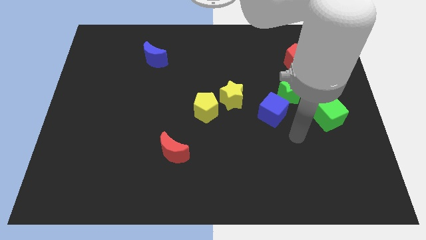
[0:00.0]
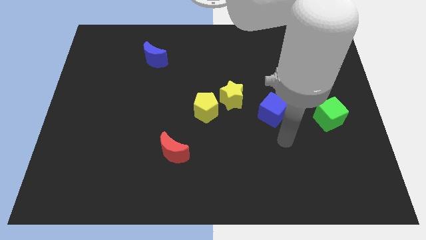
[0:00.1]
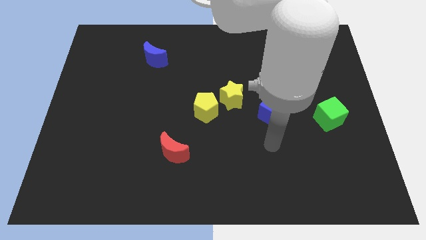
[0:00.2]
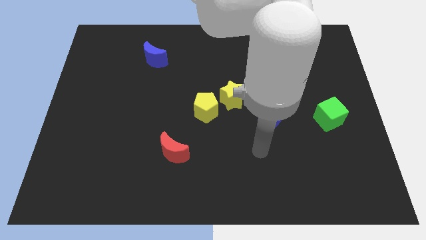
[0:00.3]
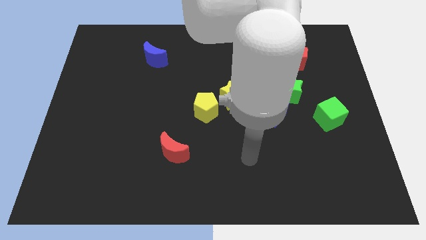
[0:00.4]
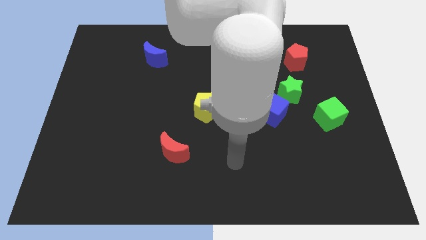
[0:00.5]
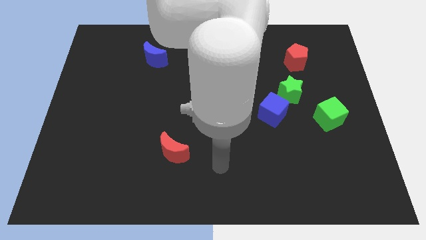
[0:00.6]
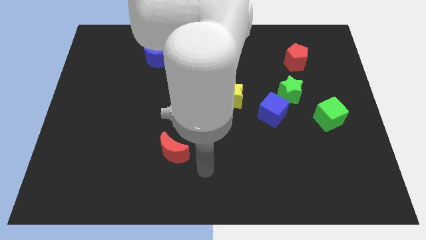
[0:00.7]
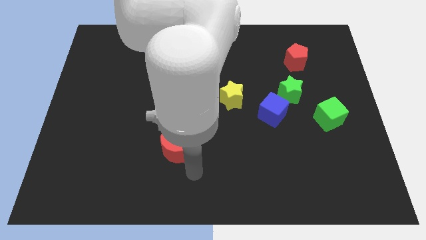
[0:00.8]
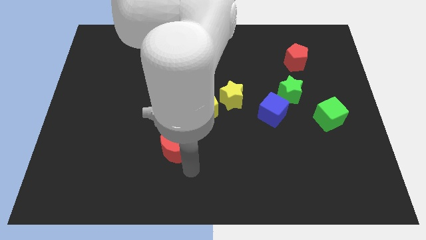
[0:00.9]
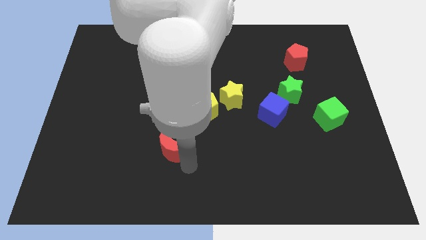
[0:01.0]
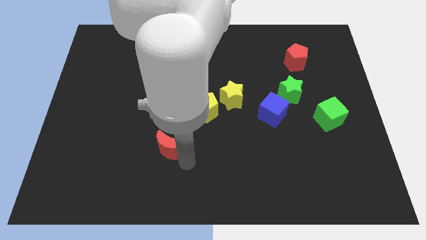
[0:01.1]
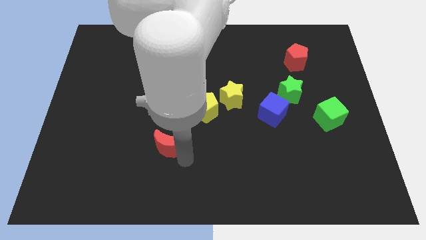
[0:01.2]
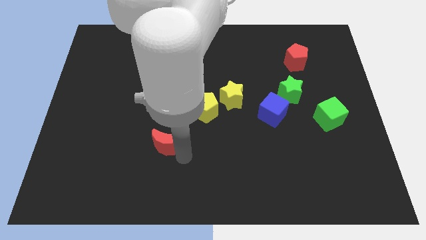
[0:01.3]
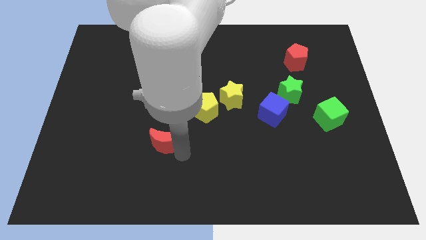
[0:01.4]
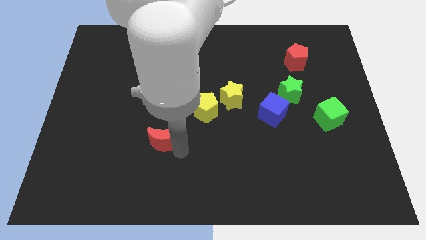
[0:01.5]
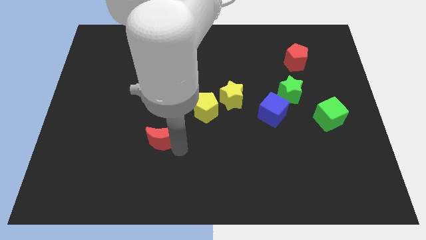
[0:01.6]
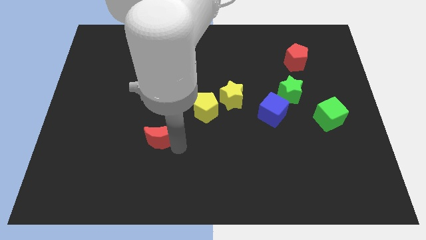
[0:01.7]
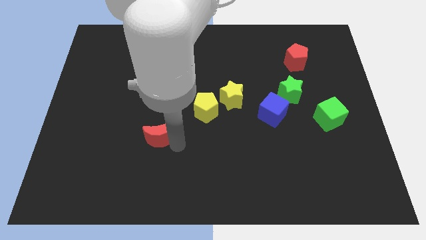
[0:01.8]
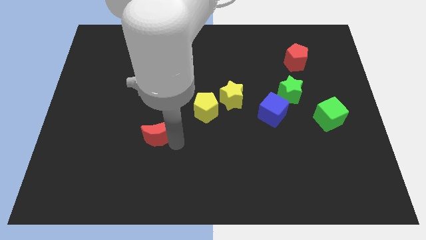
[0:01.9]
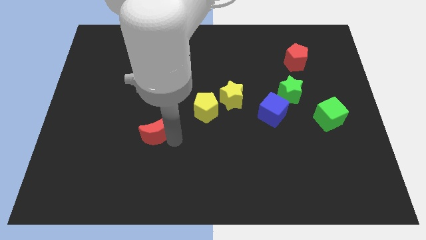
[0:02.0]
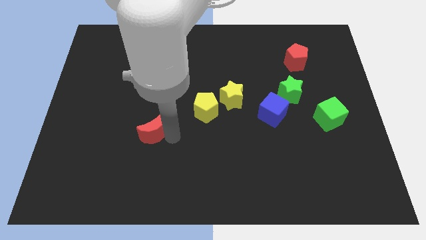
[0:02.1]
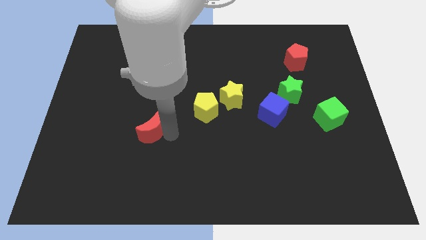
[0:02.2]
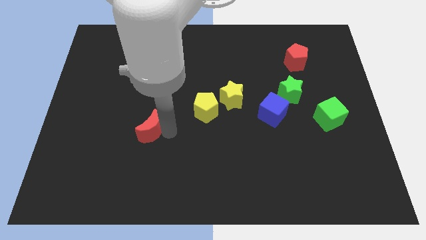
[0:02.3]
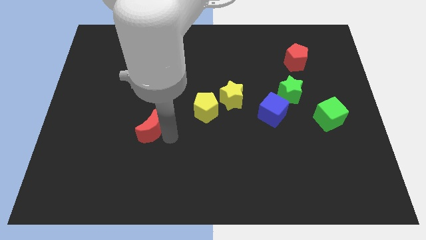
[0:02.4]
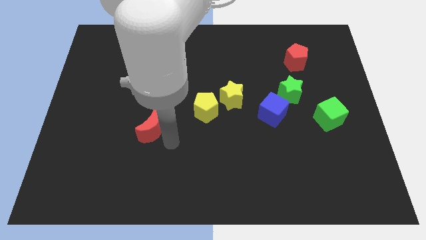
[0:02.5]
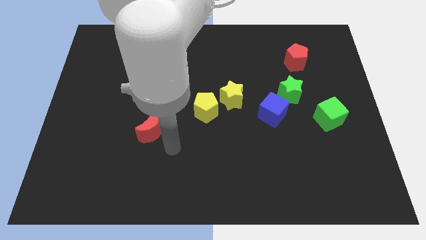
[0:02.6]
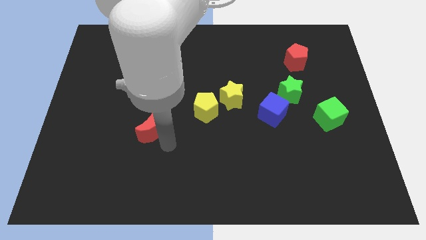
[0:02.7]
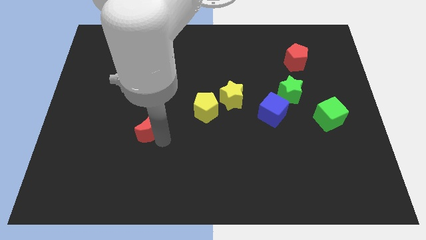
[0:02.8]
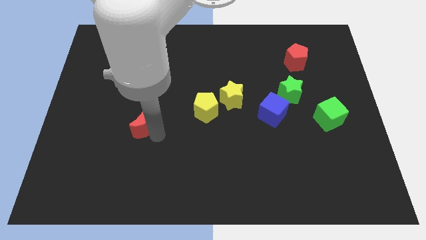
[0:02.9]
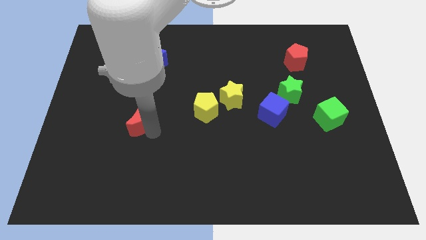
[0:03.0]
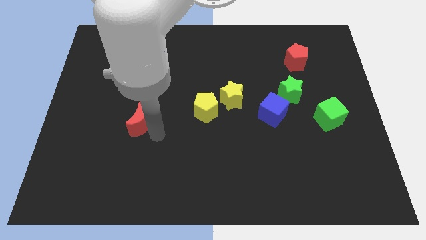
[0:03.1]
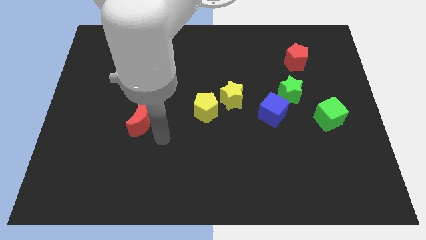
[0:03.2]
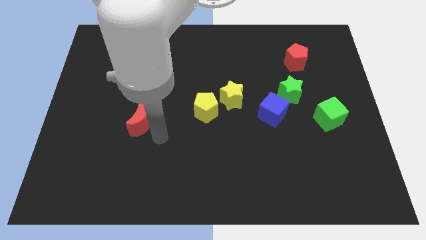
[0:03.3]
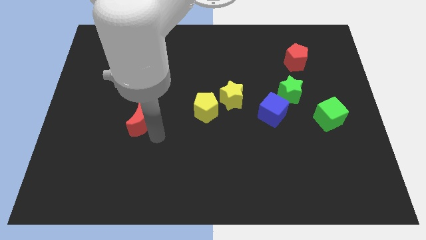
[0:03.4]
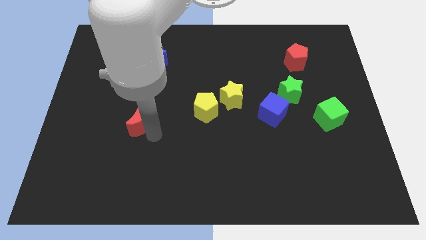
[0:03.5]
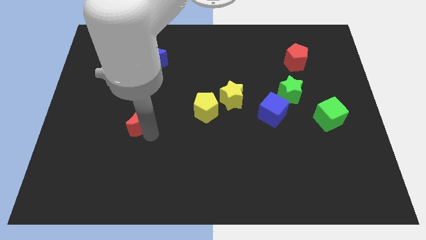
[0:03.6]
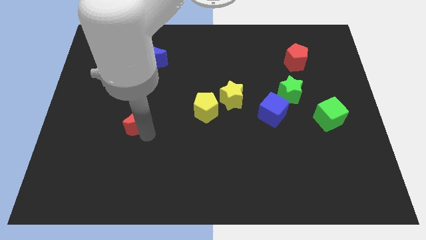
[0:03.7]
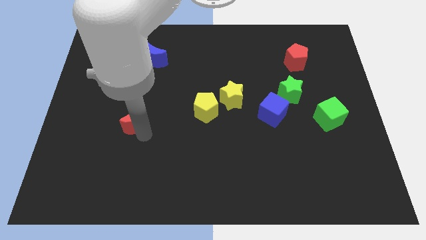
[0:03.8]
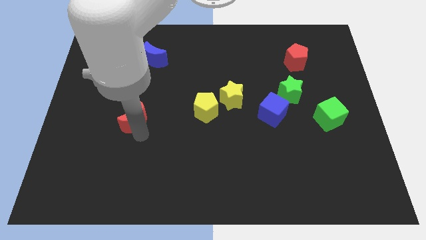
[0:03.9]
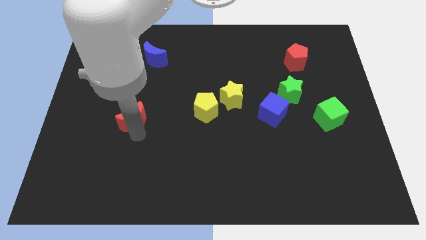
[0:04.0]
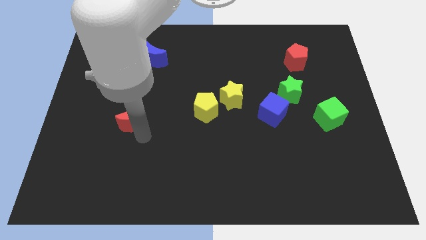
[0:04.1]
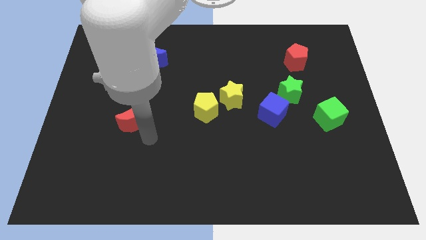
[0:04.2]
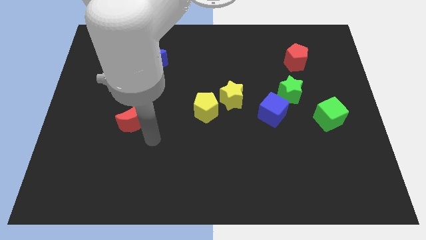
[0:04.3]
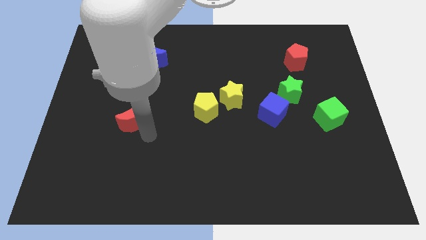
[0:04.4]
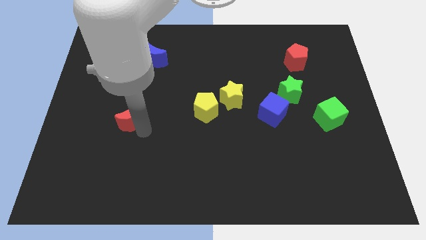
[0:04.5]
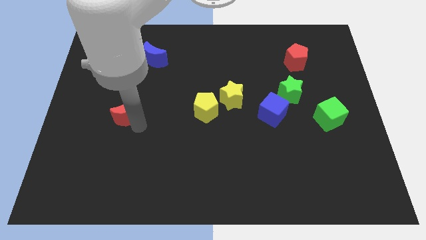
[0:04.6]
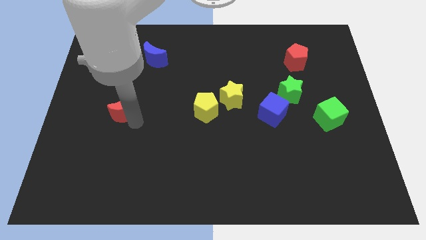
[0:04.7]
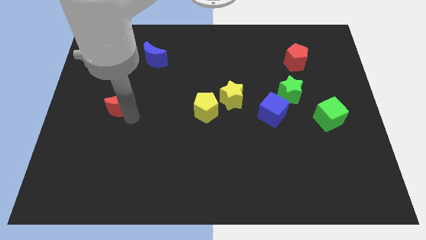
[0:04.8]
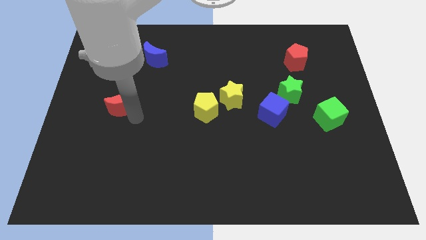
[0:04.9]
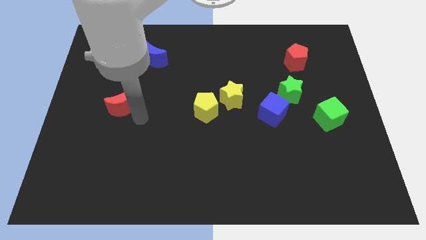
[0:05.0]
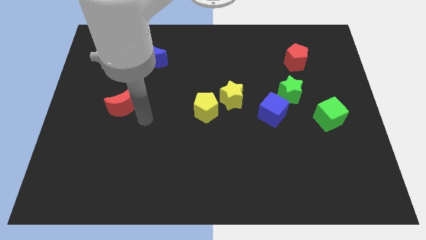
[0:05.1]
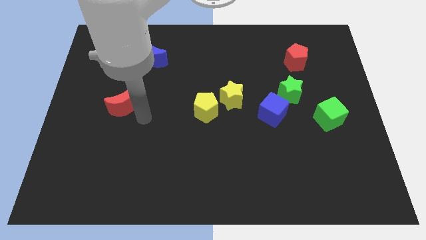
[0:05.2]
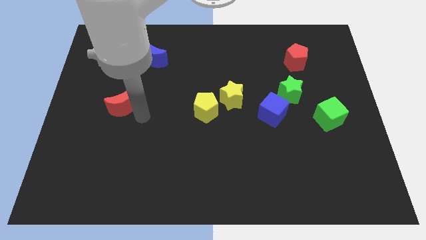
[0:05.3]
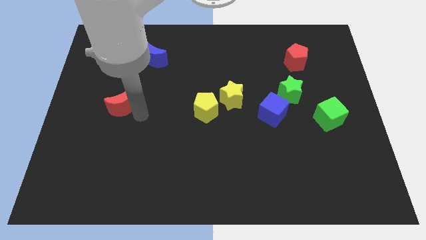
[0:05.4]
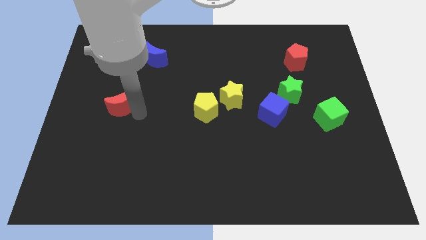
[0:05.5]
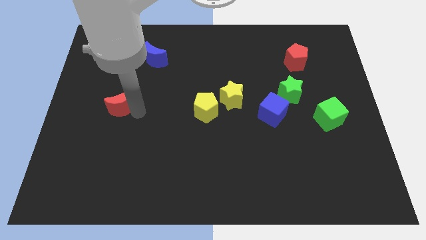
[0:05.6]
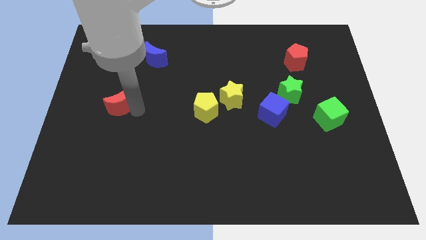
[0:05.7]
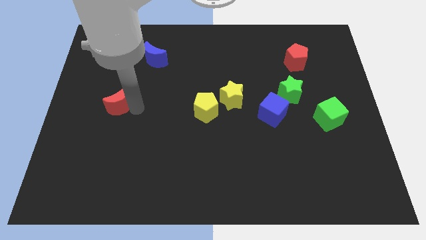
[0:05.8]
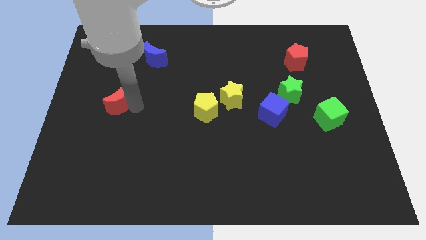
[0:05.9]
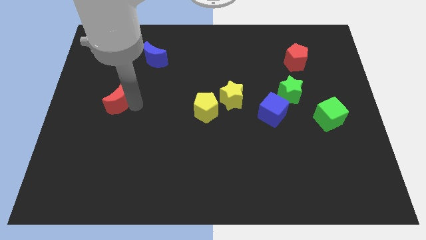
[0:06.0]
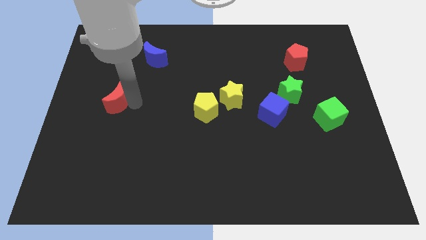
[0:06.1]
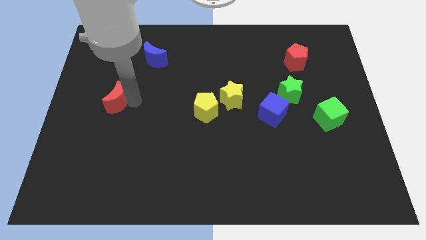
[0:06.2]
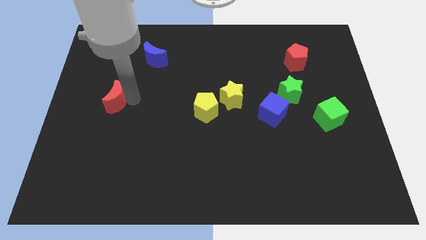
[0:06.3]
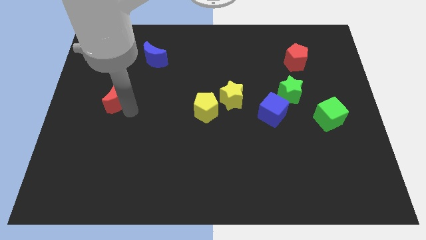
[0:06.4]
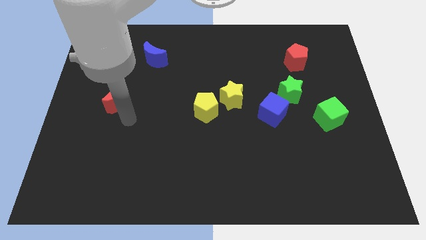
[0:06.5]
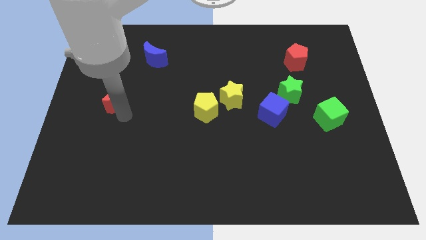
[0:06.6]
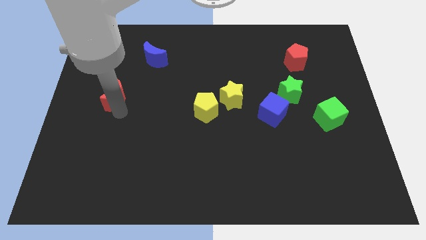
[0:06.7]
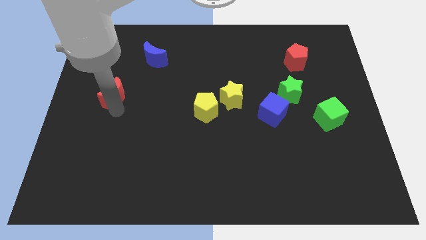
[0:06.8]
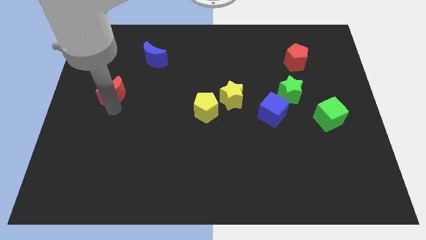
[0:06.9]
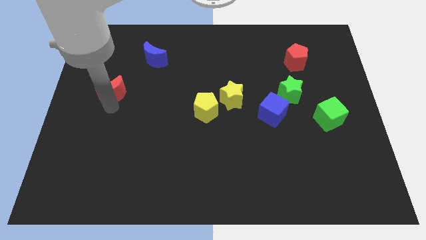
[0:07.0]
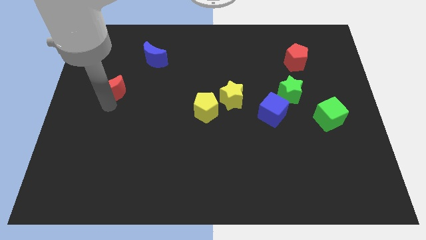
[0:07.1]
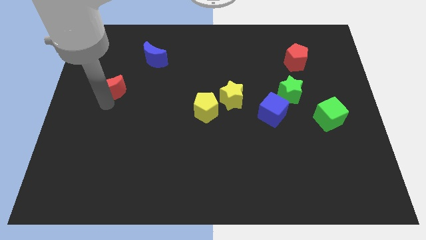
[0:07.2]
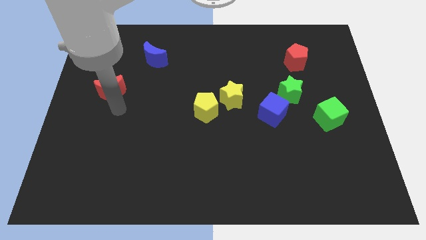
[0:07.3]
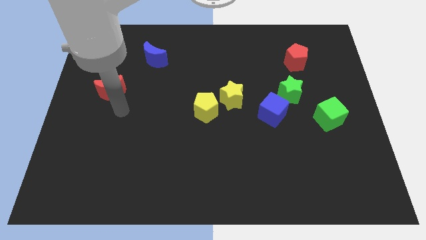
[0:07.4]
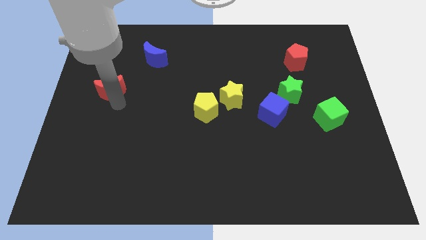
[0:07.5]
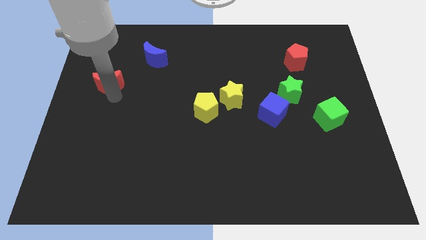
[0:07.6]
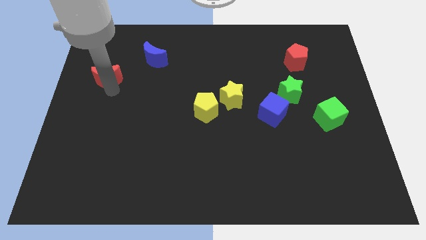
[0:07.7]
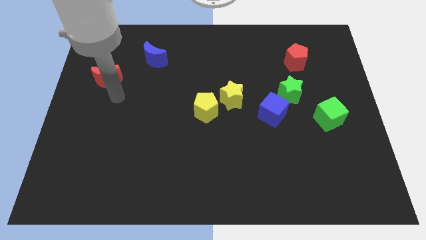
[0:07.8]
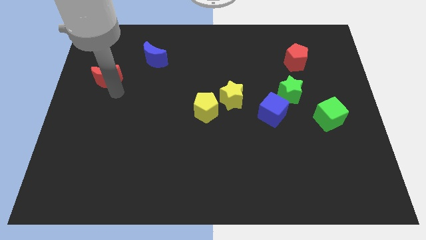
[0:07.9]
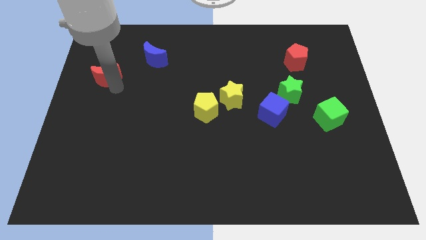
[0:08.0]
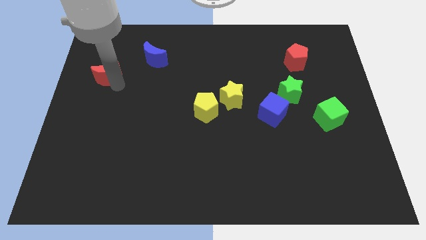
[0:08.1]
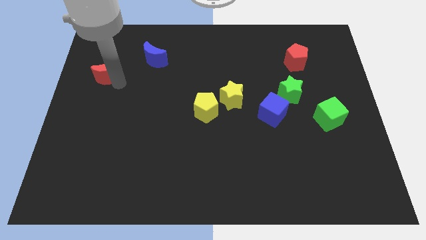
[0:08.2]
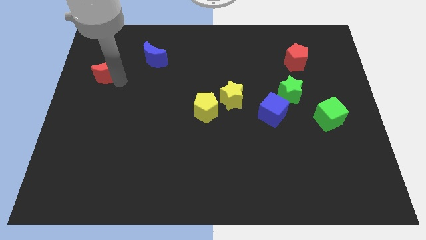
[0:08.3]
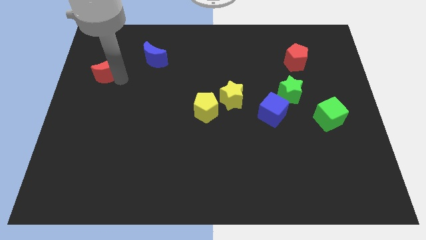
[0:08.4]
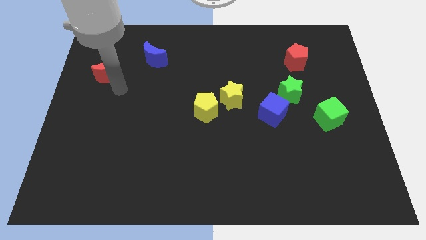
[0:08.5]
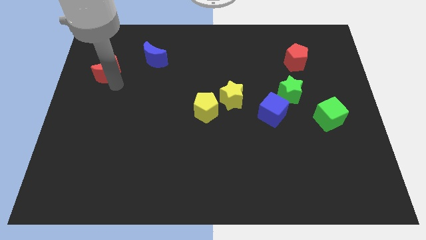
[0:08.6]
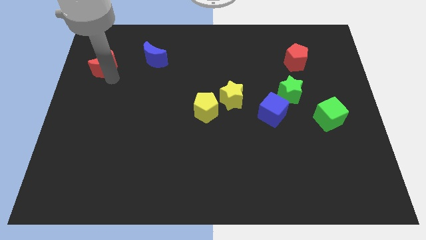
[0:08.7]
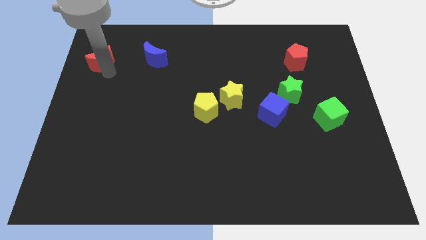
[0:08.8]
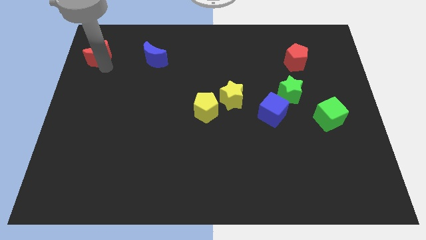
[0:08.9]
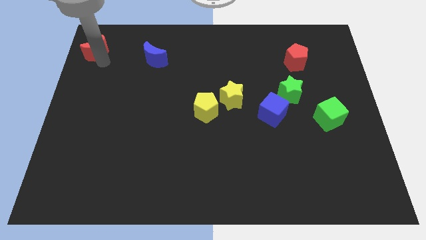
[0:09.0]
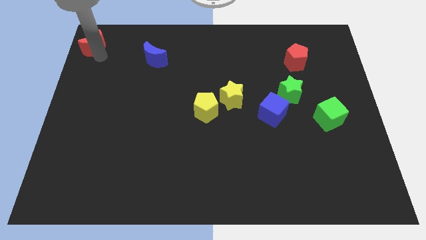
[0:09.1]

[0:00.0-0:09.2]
push the red moon to the top left corner
